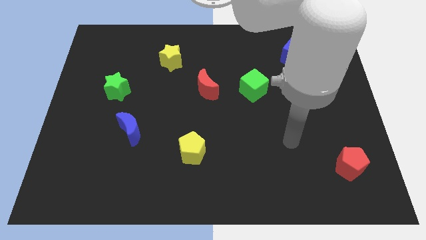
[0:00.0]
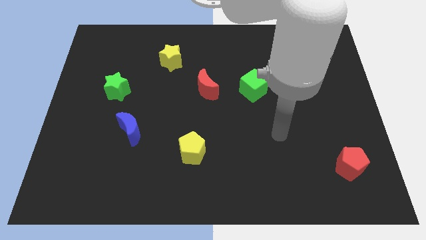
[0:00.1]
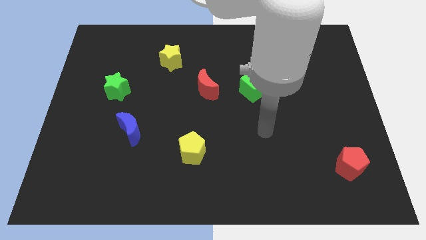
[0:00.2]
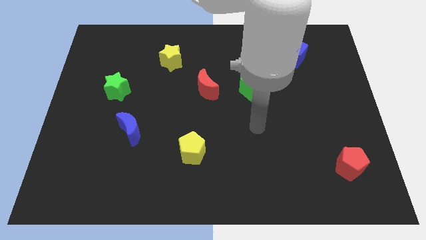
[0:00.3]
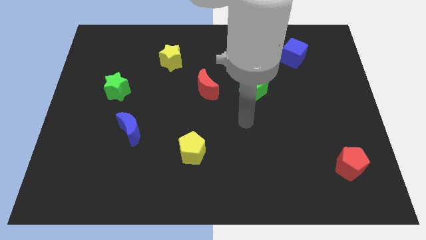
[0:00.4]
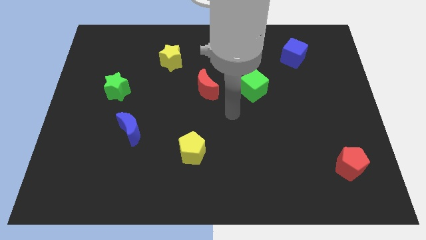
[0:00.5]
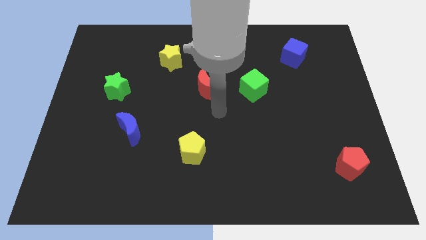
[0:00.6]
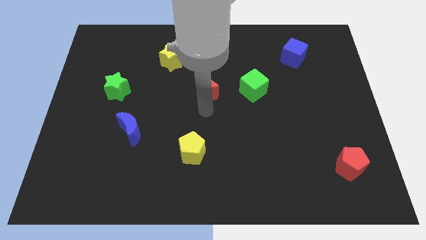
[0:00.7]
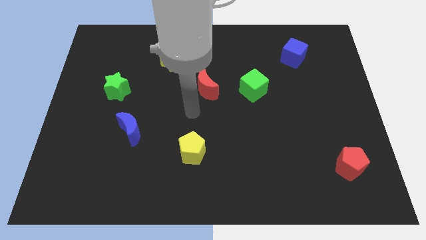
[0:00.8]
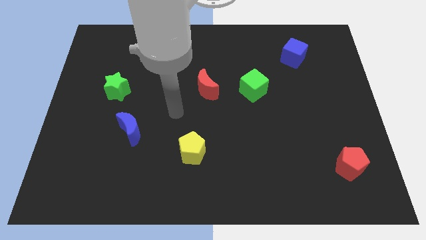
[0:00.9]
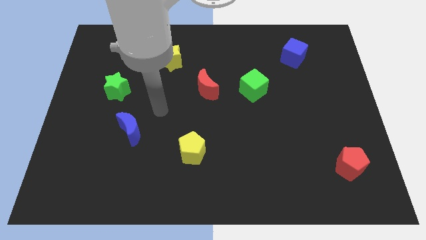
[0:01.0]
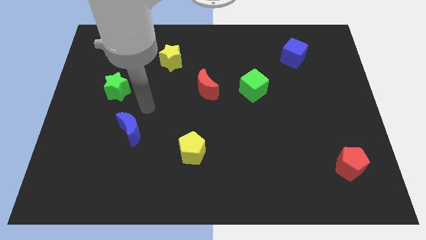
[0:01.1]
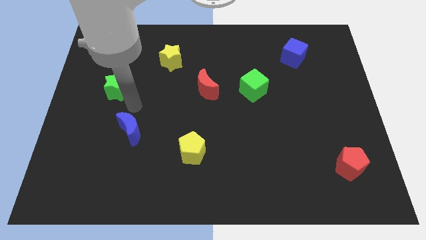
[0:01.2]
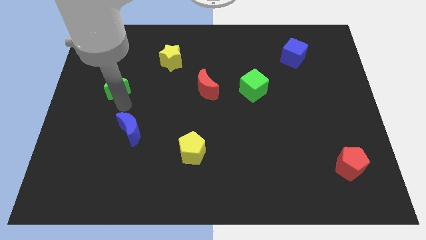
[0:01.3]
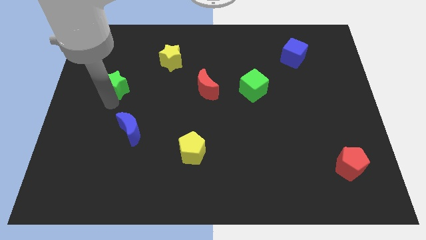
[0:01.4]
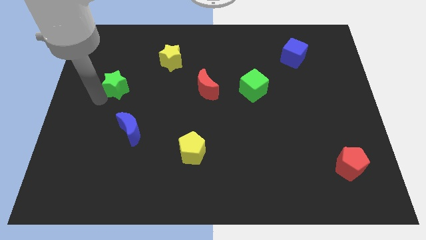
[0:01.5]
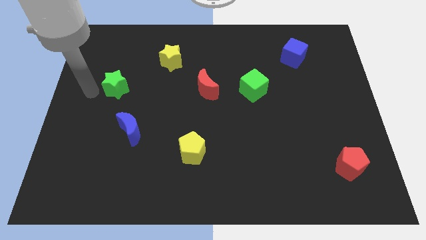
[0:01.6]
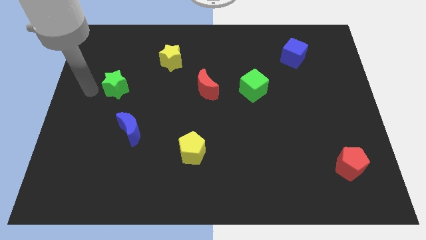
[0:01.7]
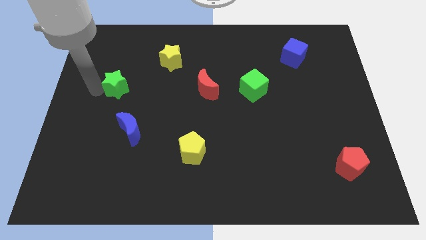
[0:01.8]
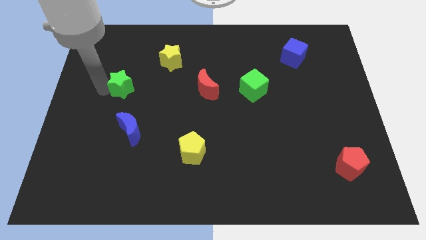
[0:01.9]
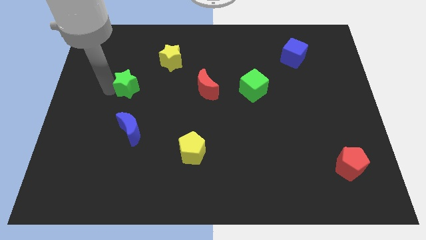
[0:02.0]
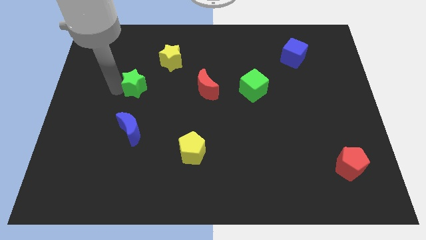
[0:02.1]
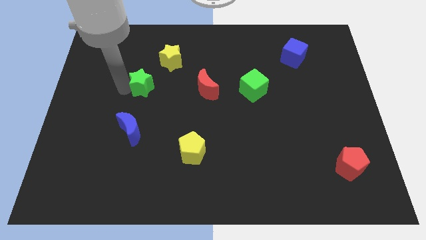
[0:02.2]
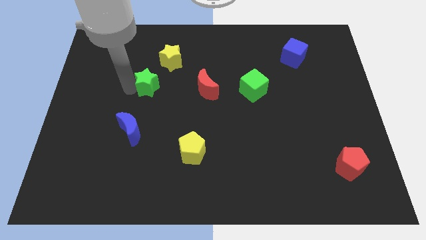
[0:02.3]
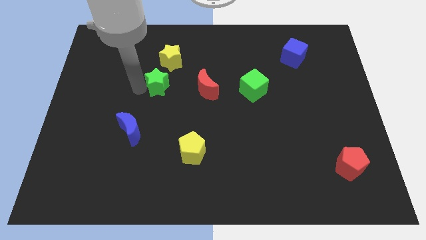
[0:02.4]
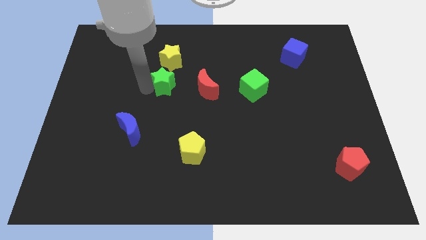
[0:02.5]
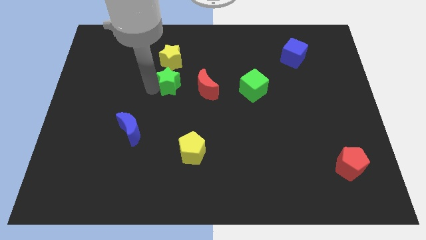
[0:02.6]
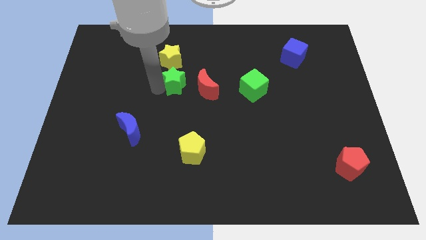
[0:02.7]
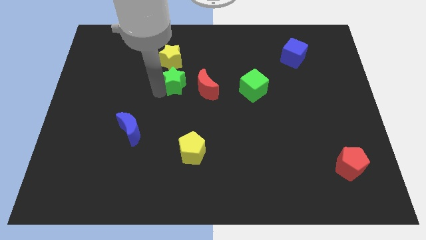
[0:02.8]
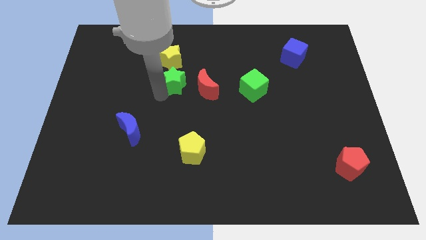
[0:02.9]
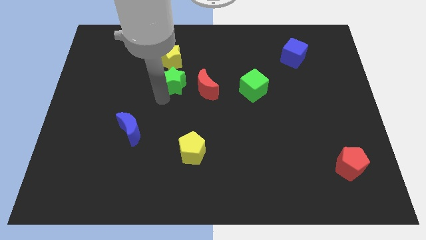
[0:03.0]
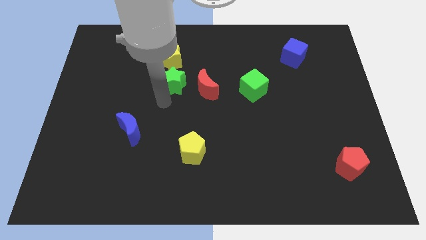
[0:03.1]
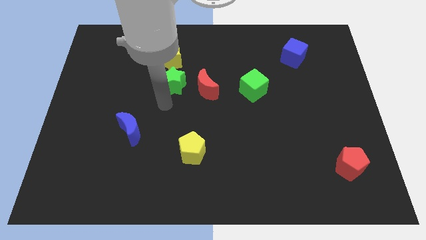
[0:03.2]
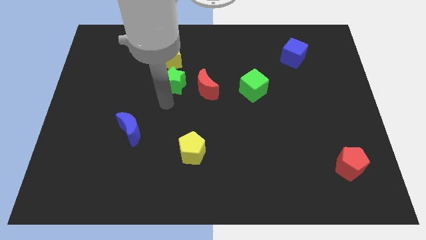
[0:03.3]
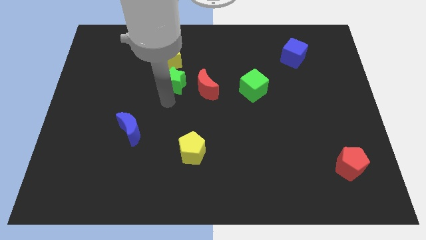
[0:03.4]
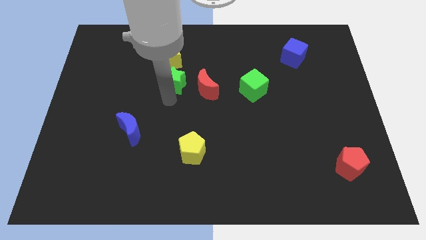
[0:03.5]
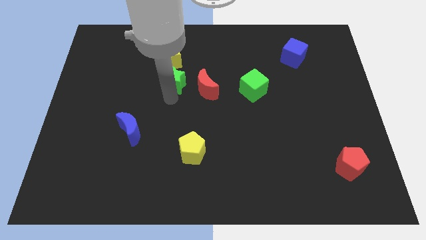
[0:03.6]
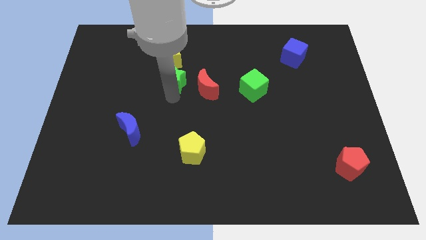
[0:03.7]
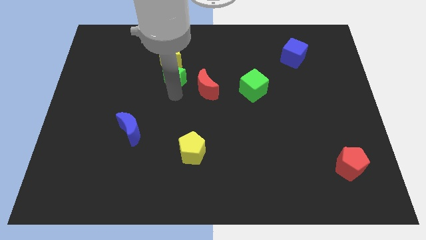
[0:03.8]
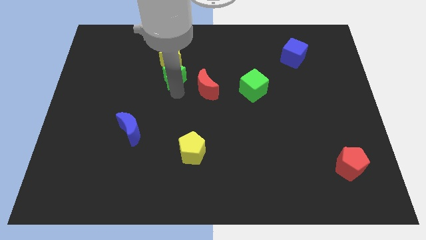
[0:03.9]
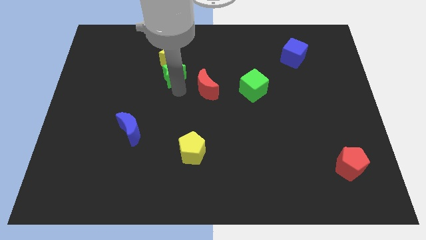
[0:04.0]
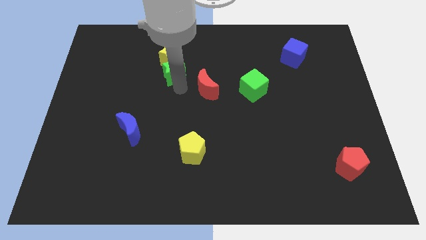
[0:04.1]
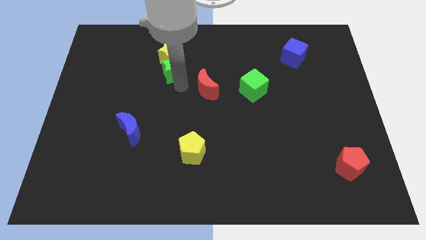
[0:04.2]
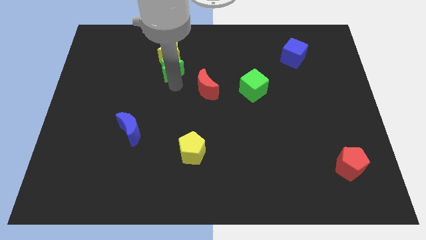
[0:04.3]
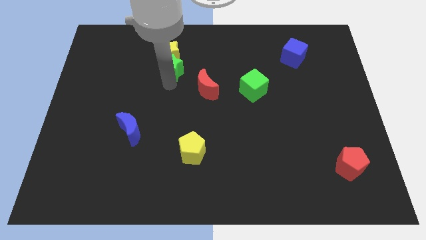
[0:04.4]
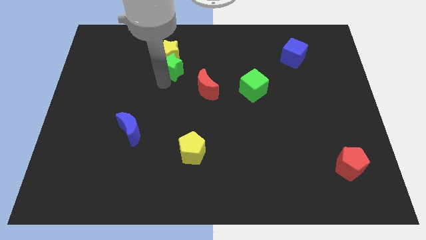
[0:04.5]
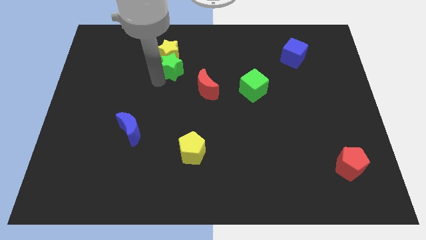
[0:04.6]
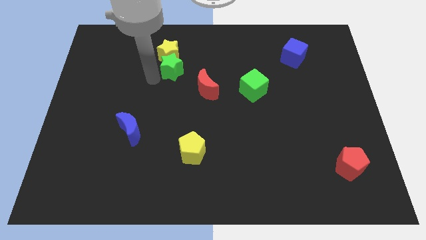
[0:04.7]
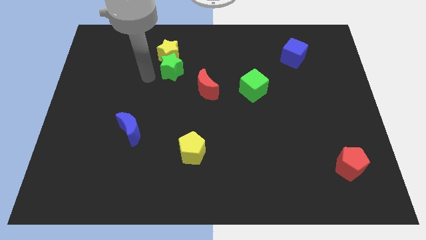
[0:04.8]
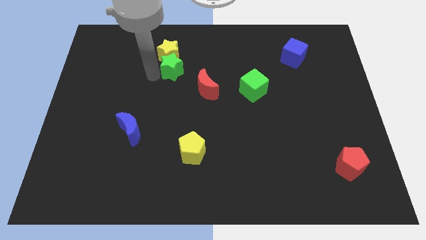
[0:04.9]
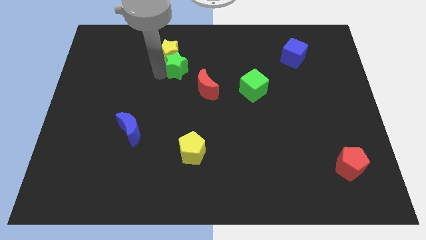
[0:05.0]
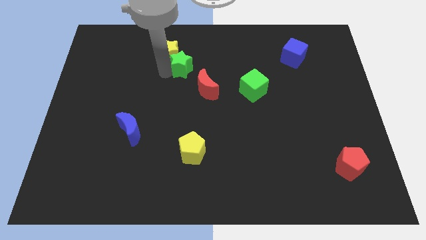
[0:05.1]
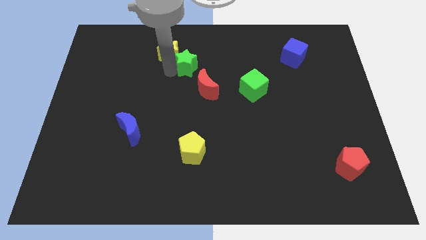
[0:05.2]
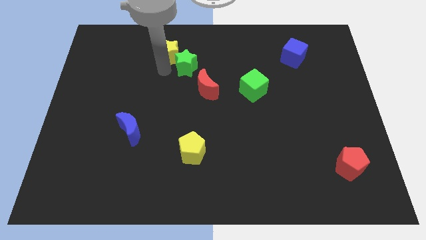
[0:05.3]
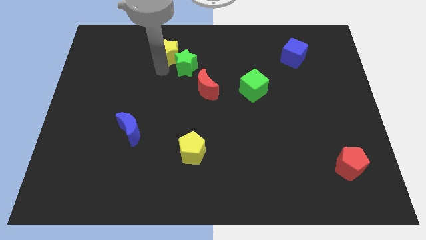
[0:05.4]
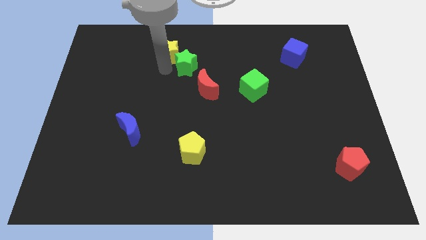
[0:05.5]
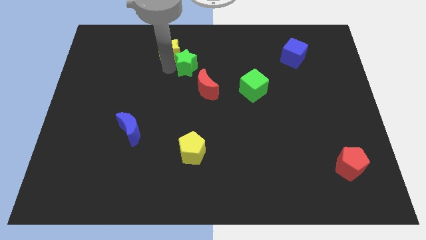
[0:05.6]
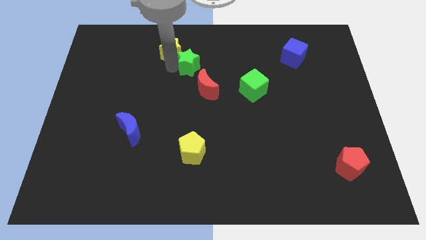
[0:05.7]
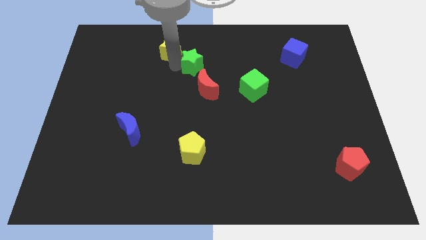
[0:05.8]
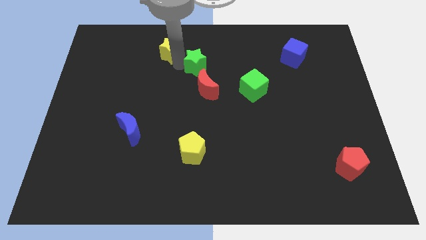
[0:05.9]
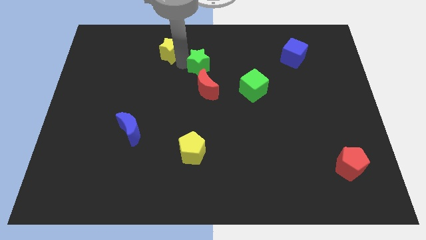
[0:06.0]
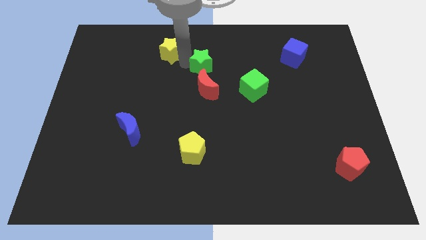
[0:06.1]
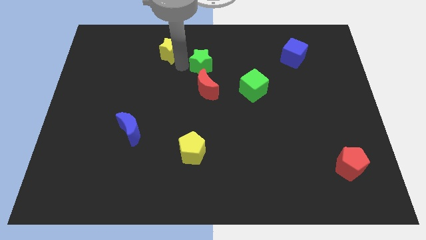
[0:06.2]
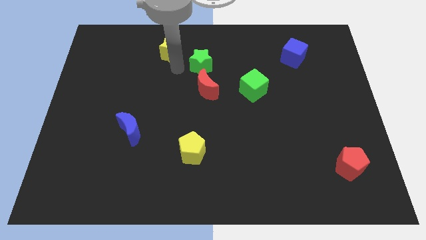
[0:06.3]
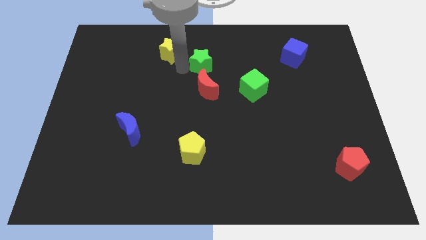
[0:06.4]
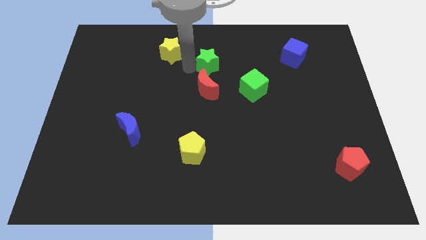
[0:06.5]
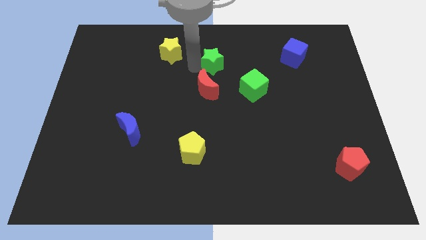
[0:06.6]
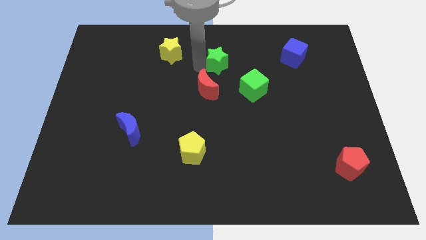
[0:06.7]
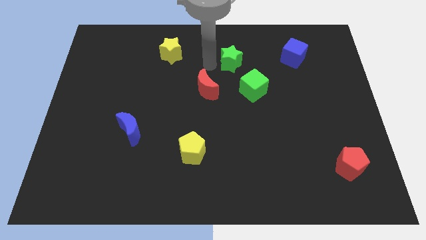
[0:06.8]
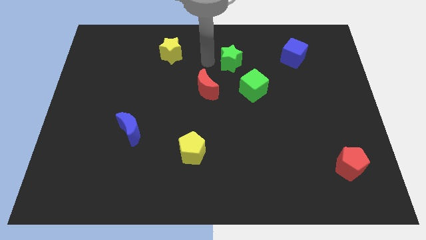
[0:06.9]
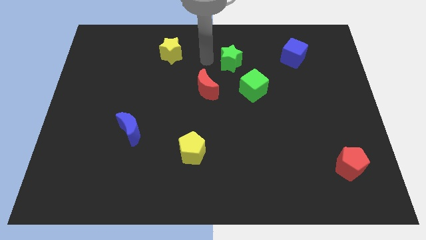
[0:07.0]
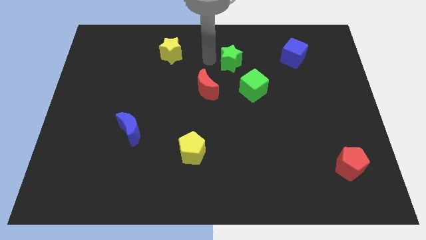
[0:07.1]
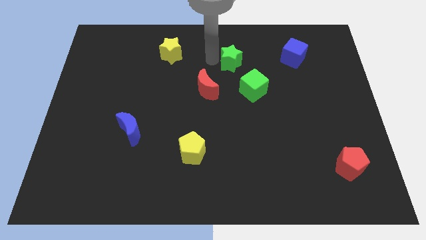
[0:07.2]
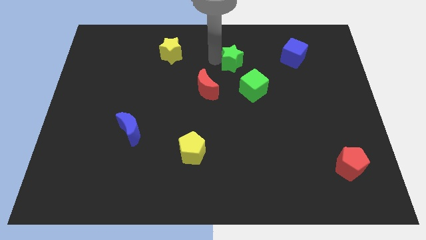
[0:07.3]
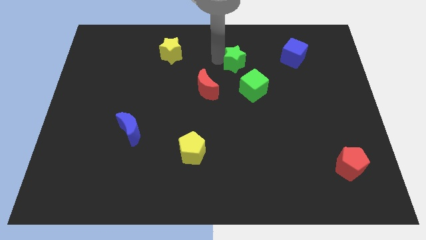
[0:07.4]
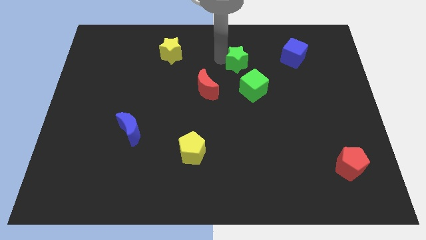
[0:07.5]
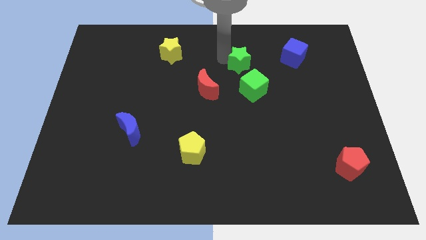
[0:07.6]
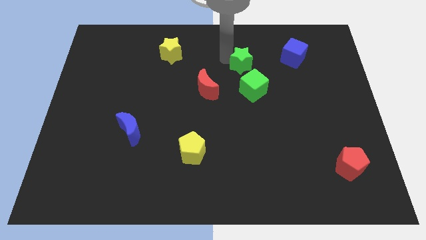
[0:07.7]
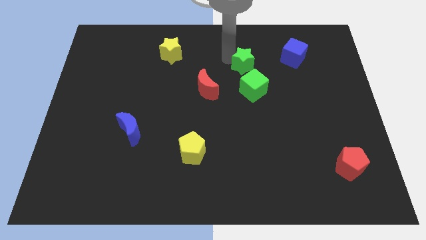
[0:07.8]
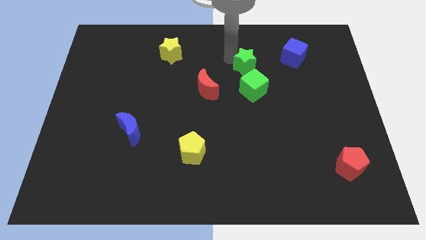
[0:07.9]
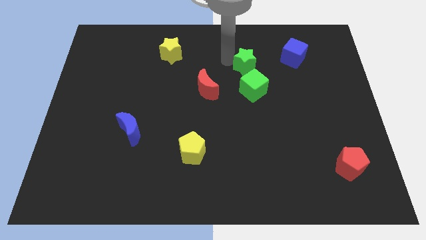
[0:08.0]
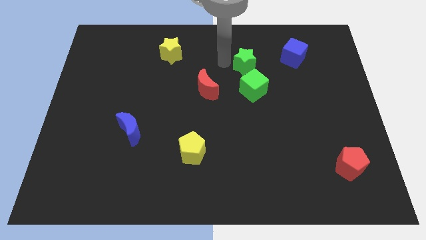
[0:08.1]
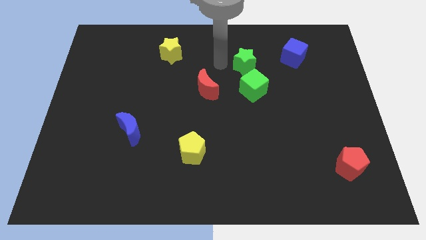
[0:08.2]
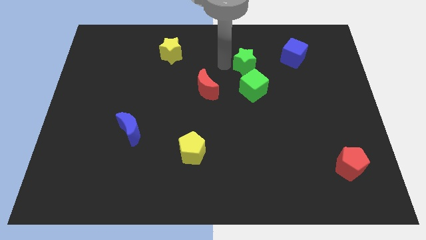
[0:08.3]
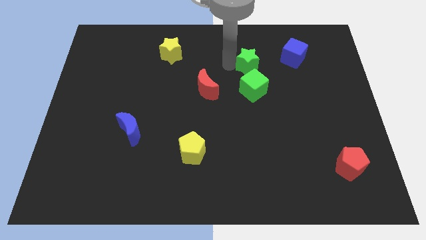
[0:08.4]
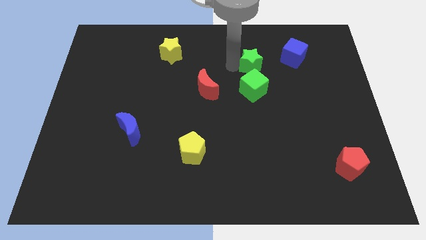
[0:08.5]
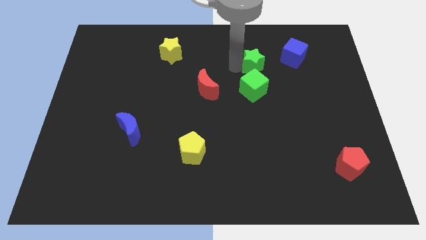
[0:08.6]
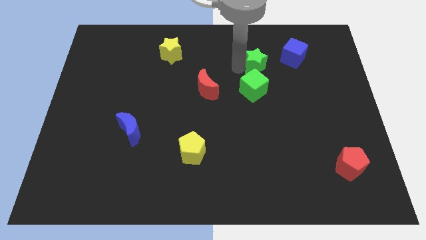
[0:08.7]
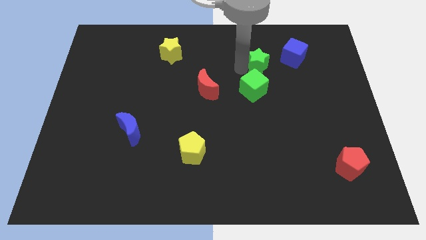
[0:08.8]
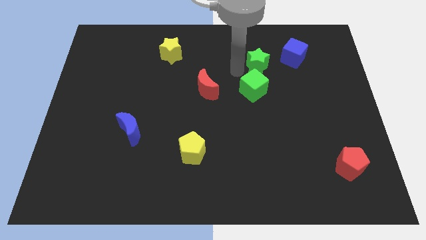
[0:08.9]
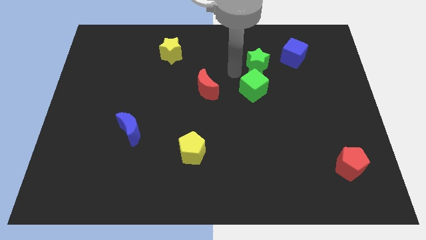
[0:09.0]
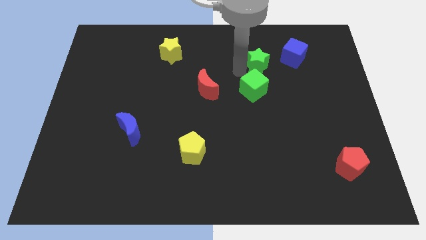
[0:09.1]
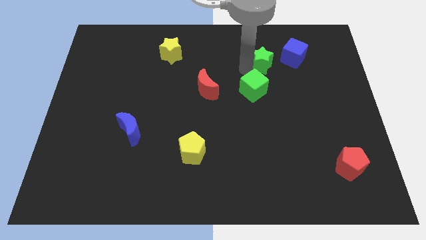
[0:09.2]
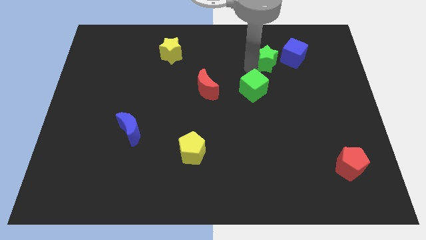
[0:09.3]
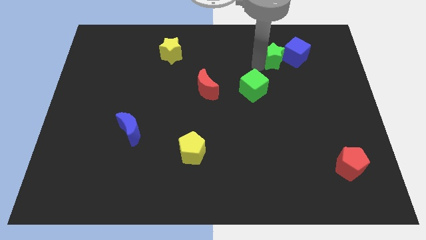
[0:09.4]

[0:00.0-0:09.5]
move the green star towards the blue cube
